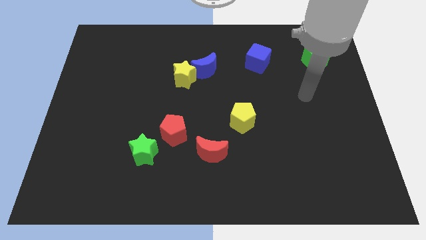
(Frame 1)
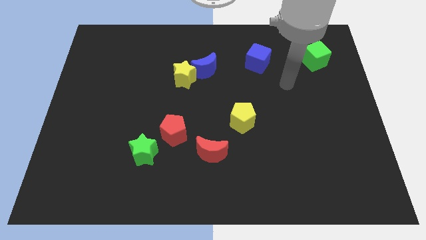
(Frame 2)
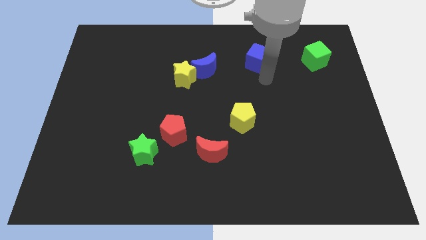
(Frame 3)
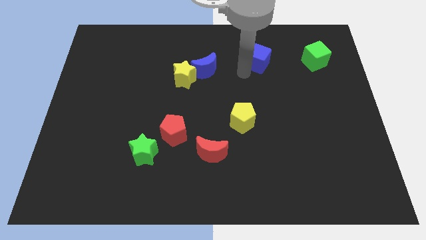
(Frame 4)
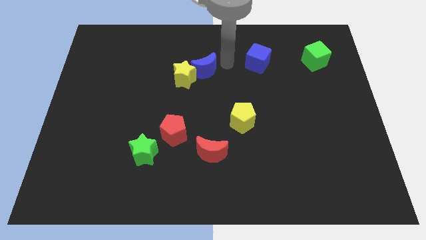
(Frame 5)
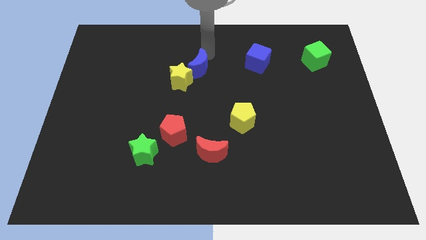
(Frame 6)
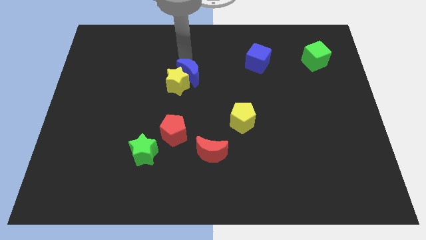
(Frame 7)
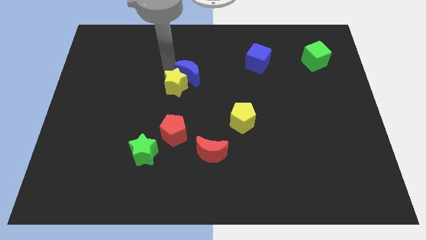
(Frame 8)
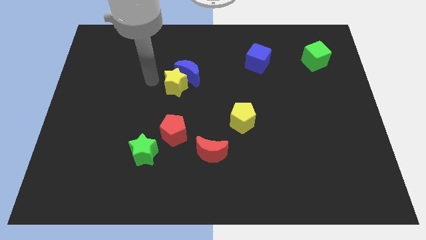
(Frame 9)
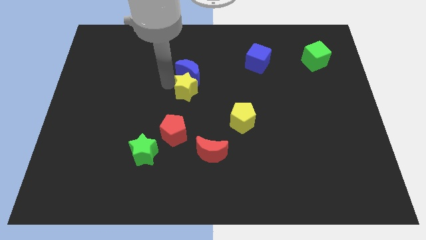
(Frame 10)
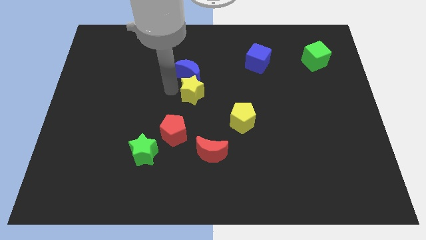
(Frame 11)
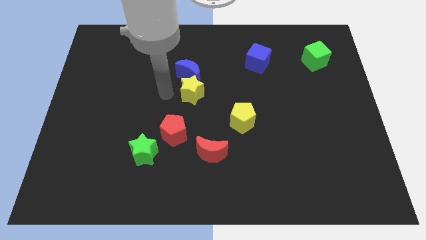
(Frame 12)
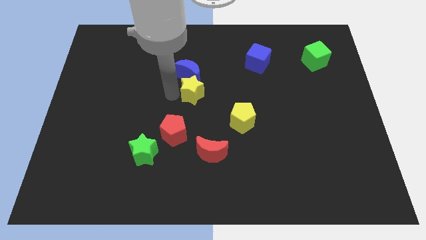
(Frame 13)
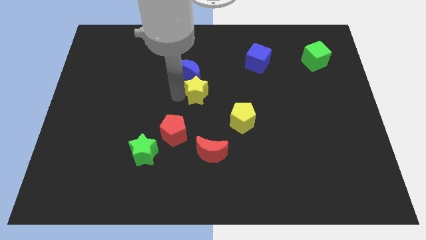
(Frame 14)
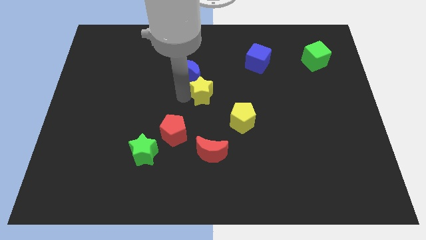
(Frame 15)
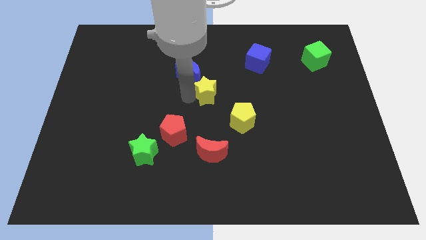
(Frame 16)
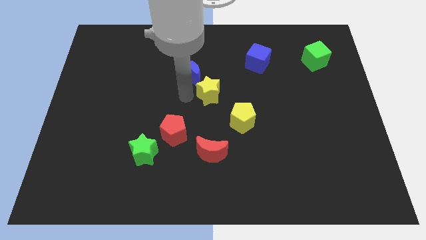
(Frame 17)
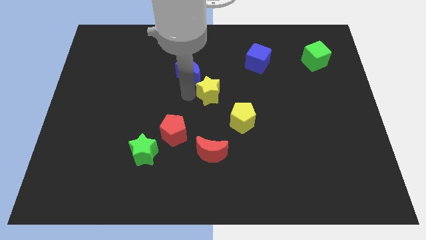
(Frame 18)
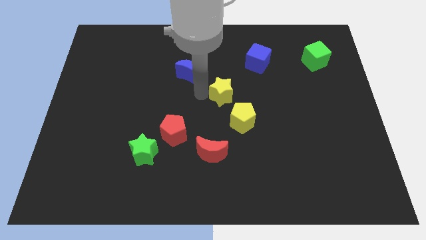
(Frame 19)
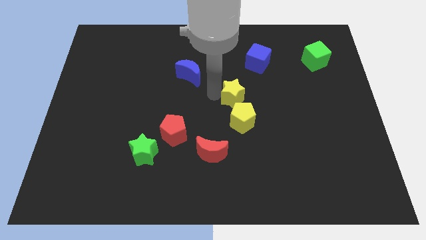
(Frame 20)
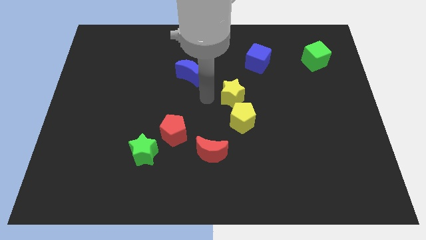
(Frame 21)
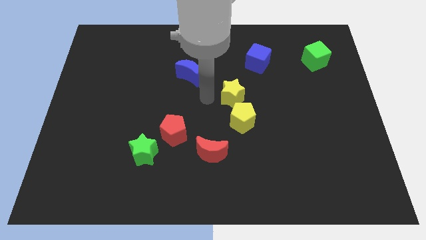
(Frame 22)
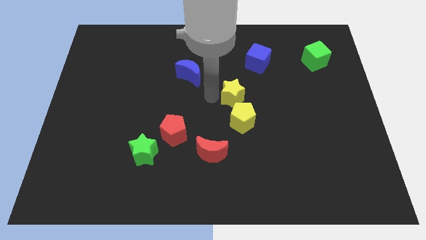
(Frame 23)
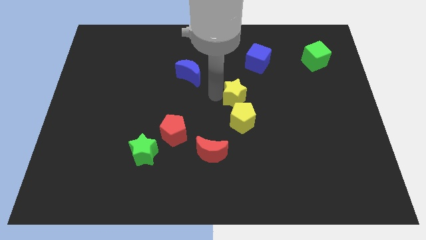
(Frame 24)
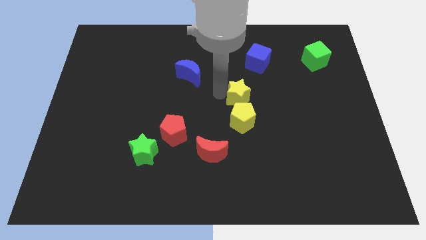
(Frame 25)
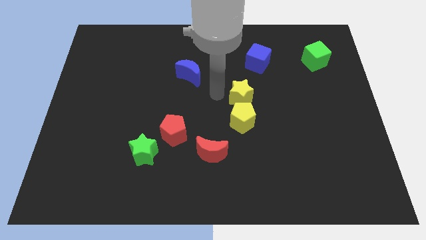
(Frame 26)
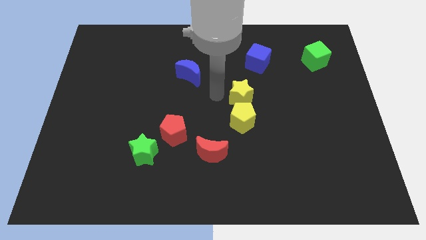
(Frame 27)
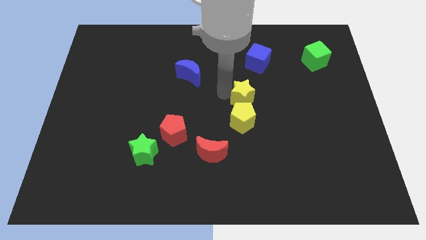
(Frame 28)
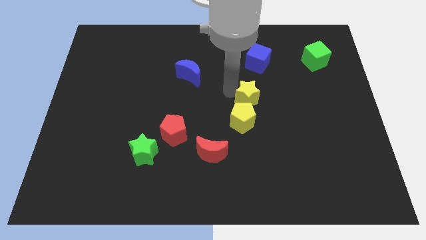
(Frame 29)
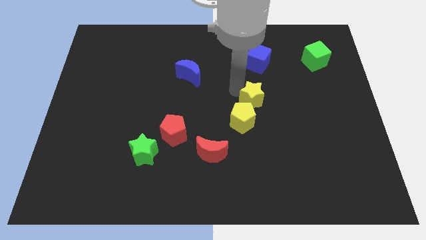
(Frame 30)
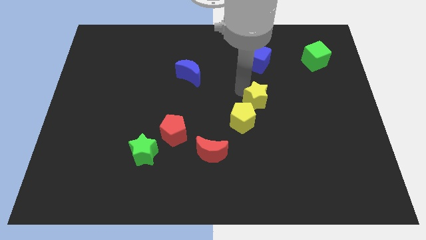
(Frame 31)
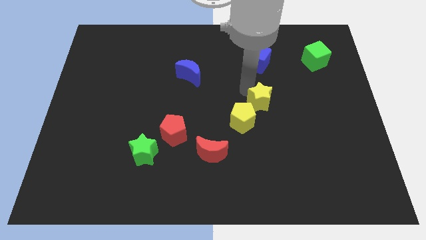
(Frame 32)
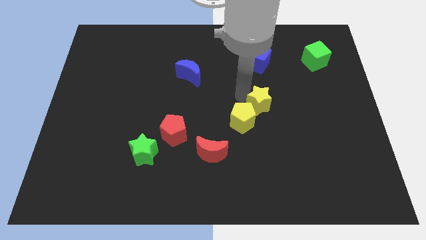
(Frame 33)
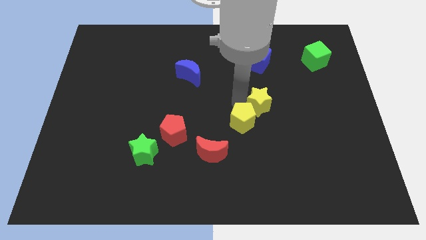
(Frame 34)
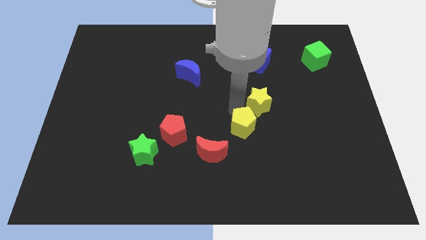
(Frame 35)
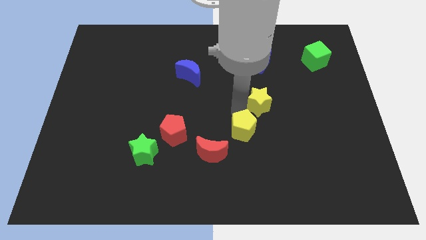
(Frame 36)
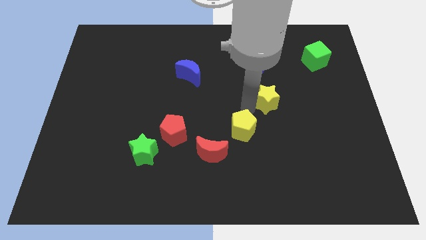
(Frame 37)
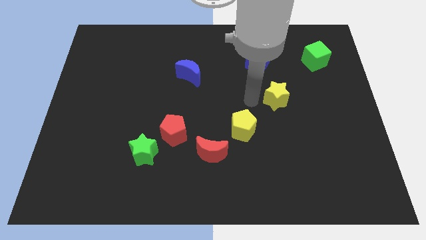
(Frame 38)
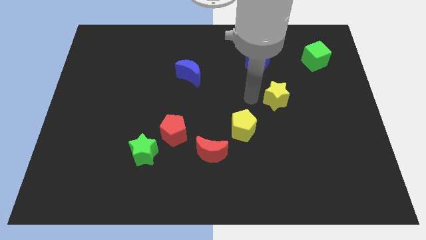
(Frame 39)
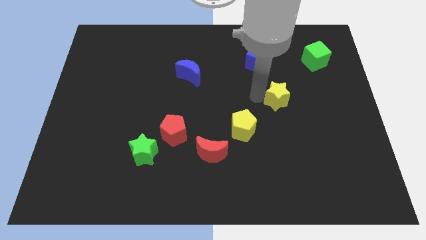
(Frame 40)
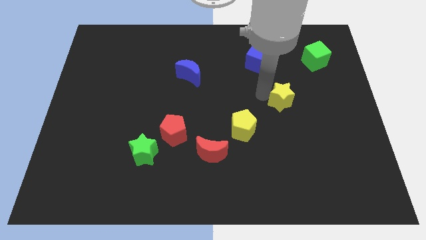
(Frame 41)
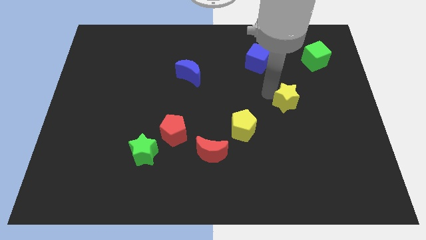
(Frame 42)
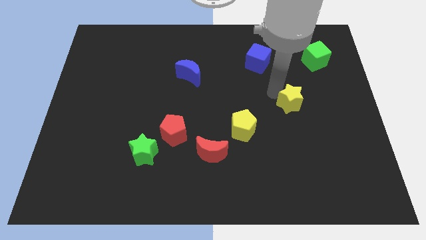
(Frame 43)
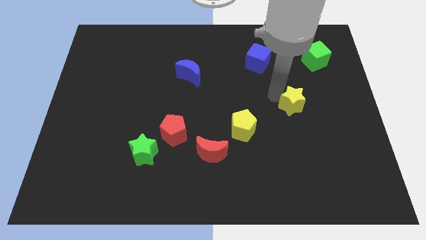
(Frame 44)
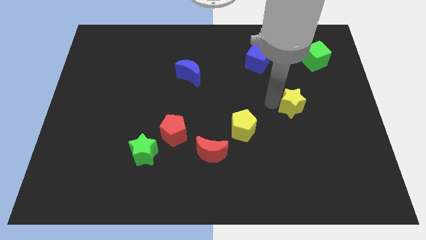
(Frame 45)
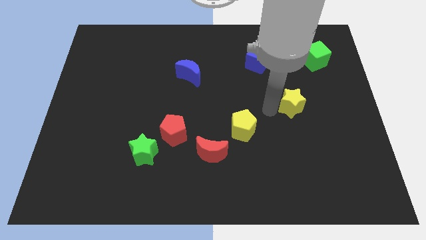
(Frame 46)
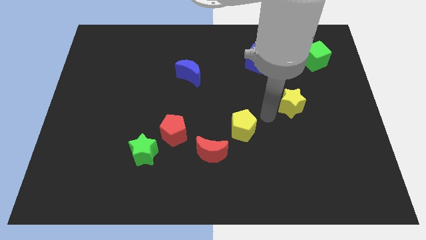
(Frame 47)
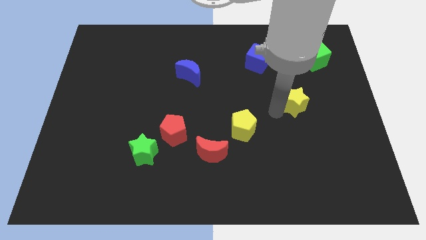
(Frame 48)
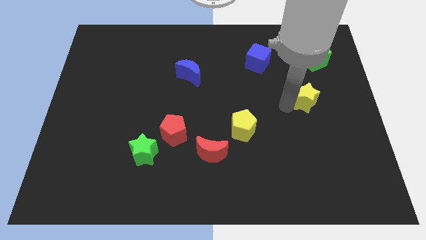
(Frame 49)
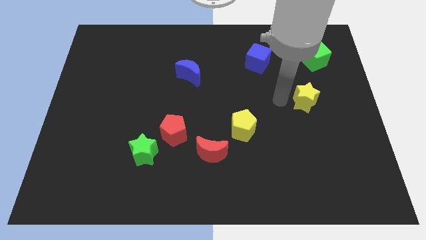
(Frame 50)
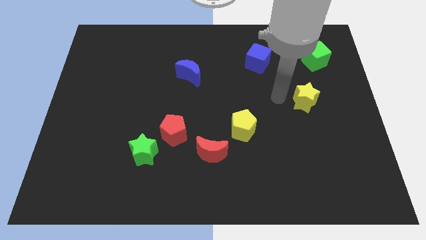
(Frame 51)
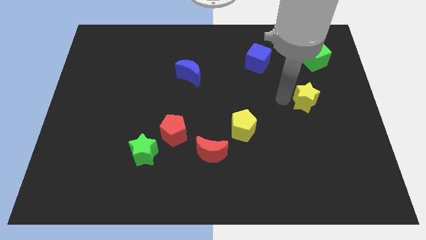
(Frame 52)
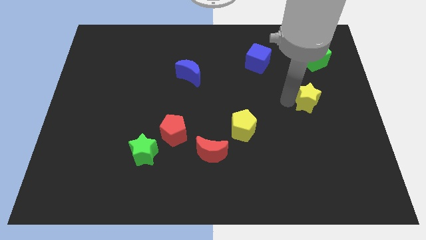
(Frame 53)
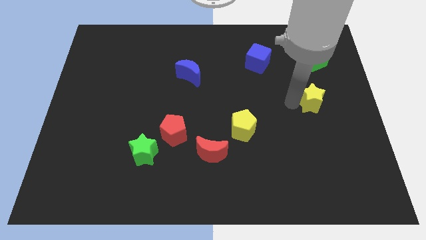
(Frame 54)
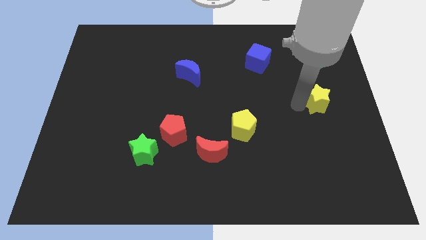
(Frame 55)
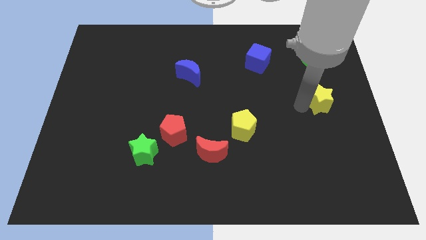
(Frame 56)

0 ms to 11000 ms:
slide the yellow star to the right side
